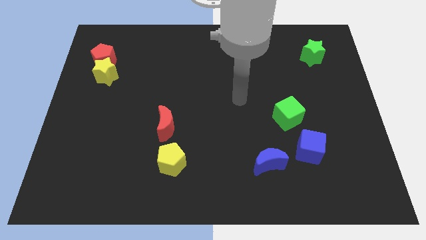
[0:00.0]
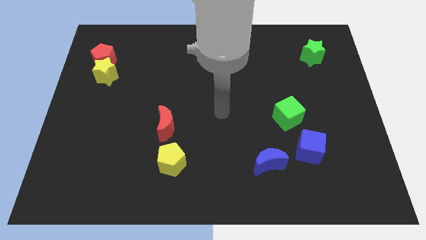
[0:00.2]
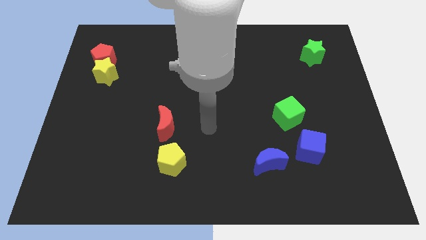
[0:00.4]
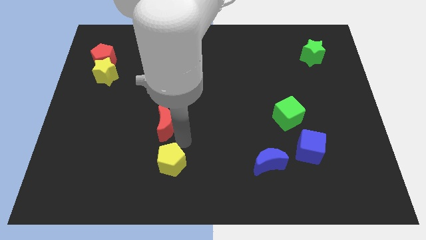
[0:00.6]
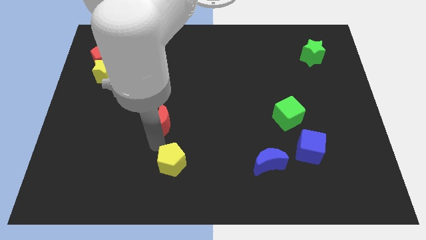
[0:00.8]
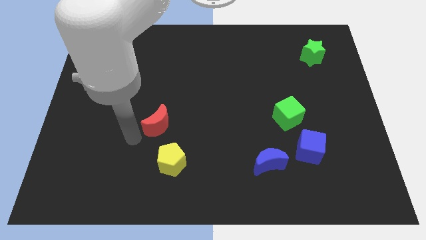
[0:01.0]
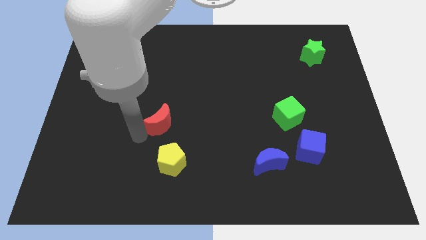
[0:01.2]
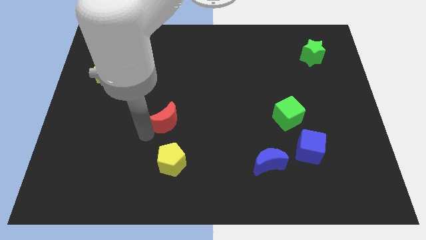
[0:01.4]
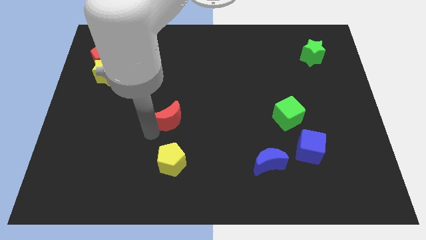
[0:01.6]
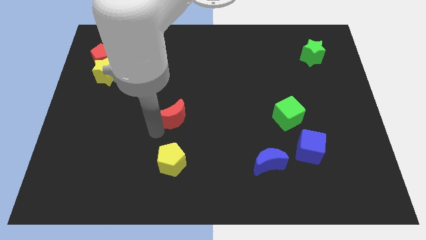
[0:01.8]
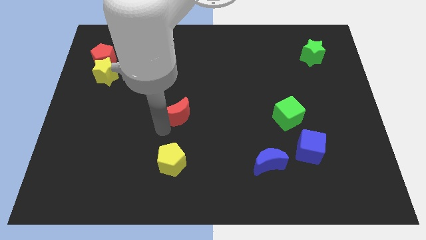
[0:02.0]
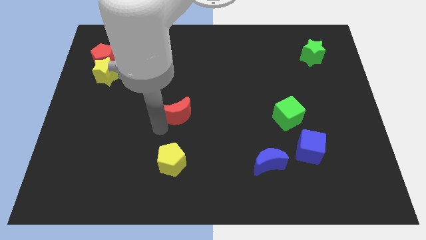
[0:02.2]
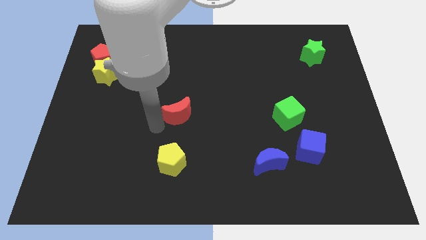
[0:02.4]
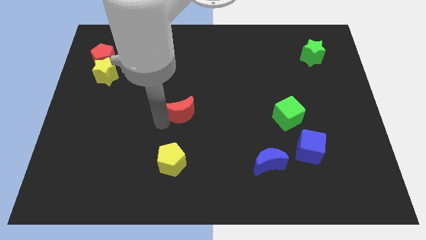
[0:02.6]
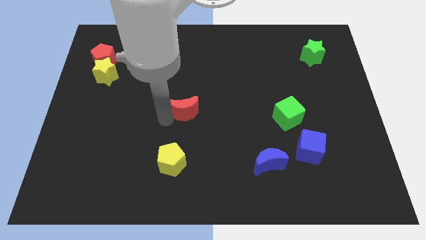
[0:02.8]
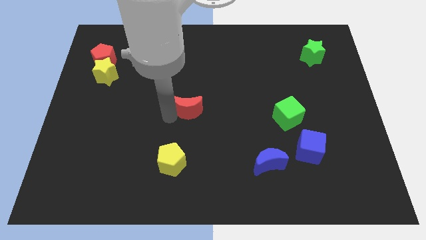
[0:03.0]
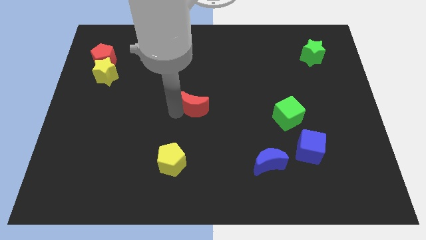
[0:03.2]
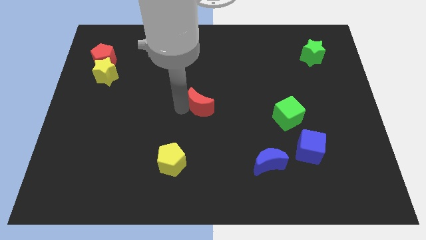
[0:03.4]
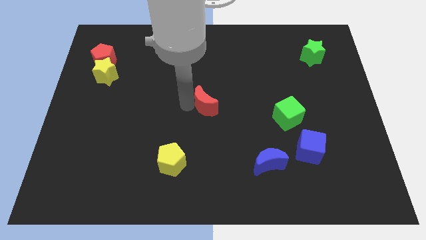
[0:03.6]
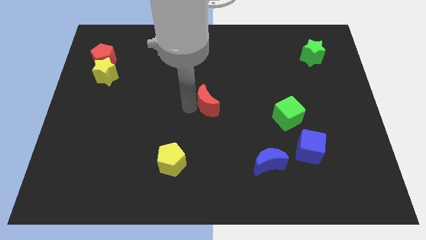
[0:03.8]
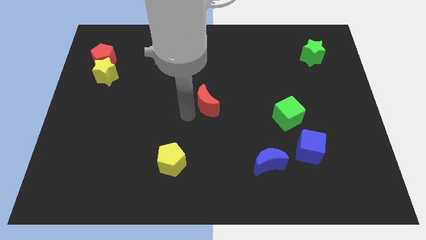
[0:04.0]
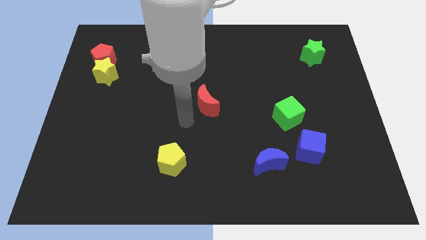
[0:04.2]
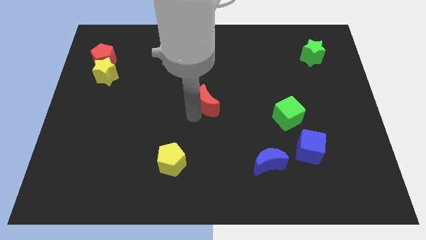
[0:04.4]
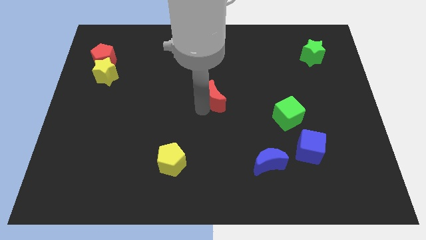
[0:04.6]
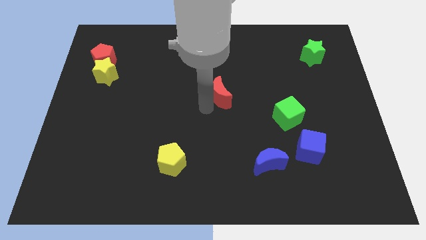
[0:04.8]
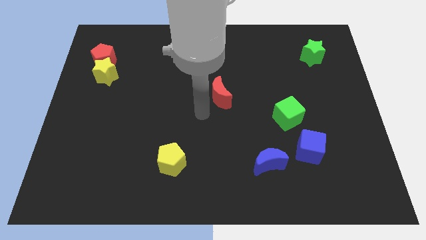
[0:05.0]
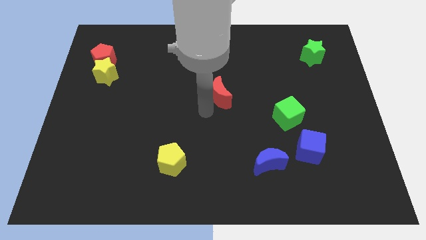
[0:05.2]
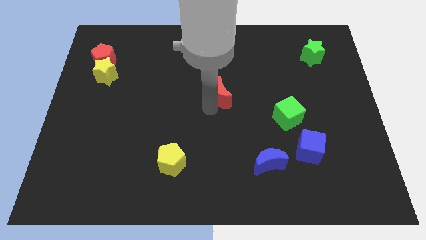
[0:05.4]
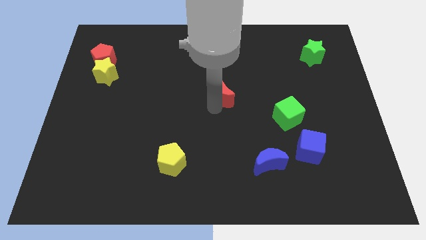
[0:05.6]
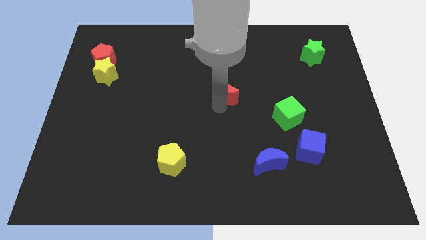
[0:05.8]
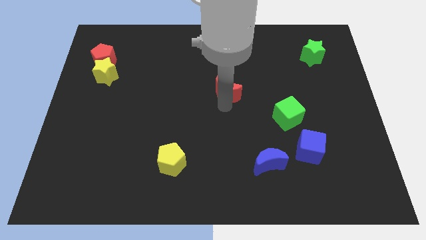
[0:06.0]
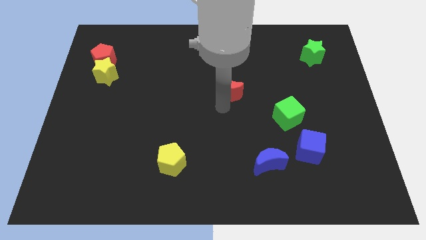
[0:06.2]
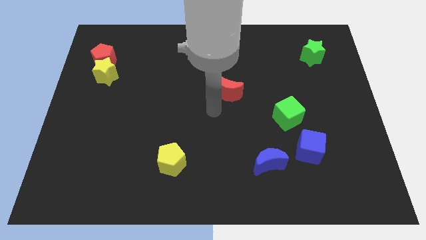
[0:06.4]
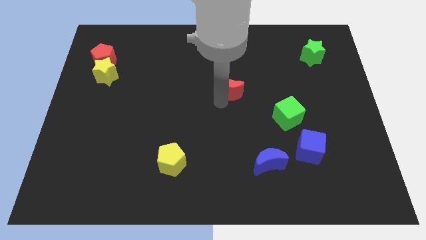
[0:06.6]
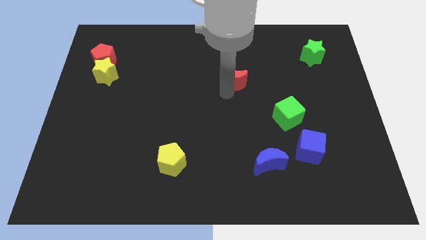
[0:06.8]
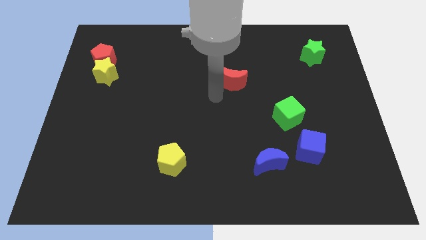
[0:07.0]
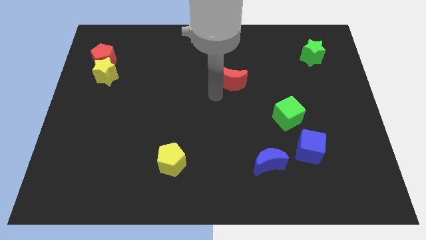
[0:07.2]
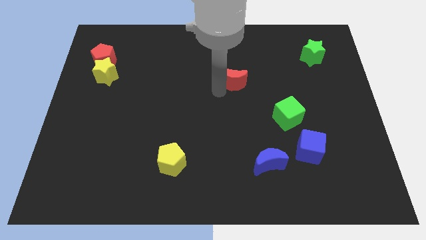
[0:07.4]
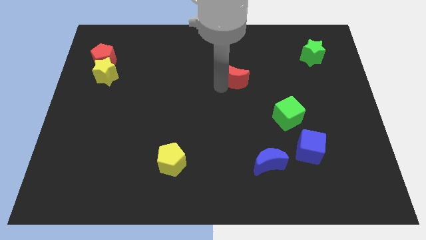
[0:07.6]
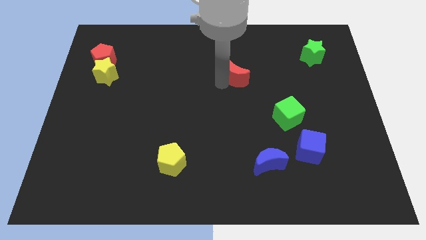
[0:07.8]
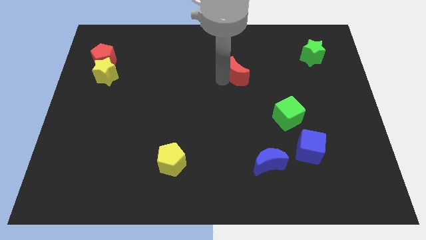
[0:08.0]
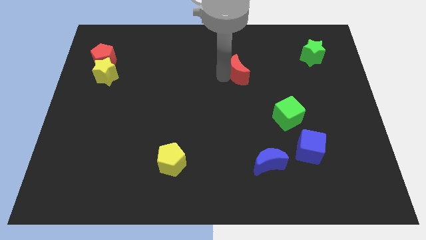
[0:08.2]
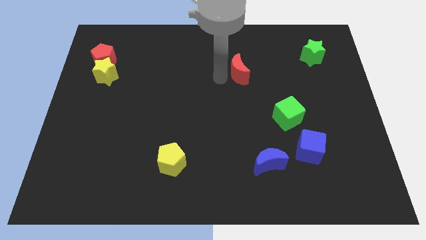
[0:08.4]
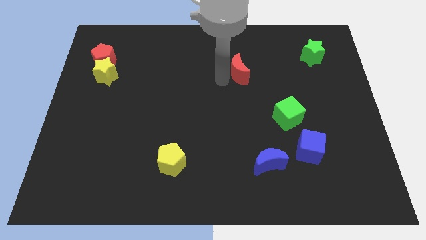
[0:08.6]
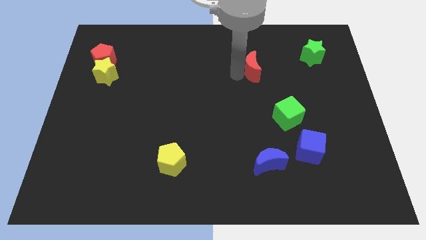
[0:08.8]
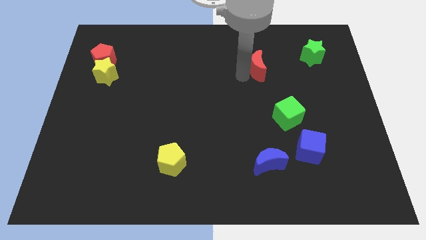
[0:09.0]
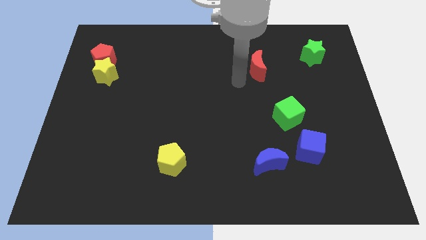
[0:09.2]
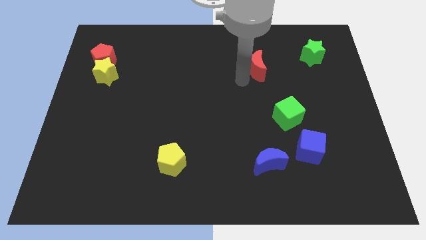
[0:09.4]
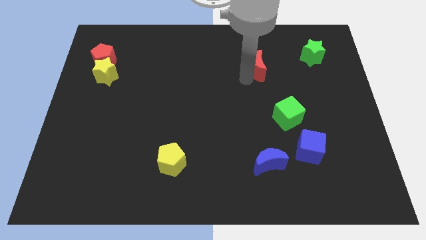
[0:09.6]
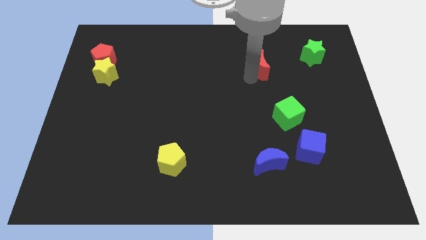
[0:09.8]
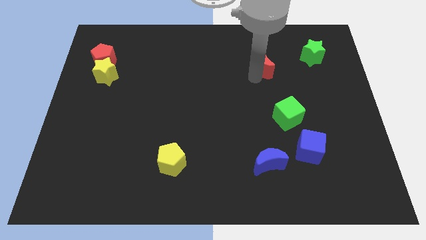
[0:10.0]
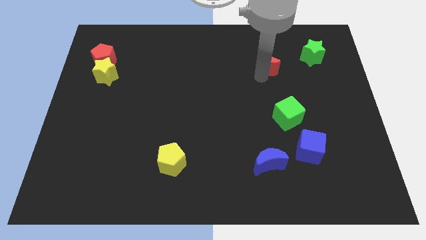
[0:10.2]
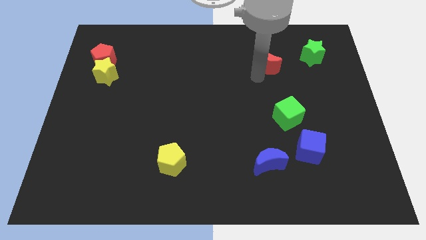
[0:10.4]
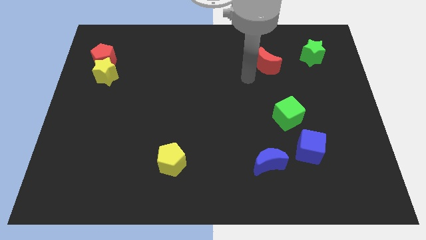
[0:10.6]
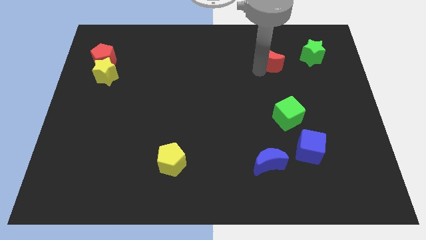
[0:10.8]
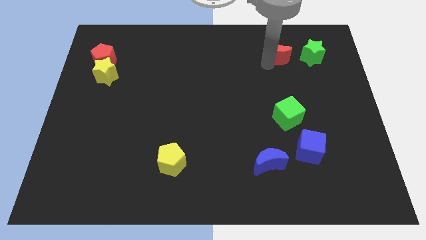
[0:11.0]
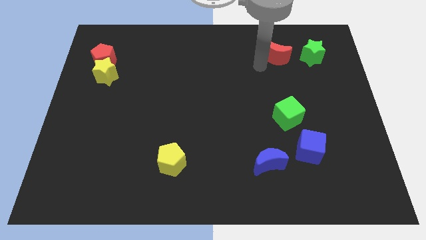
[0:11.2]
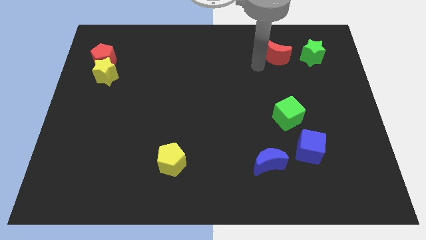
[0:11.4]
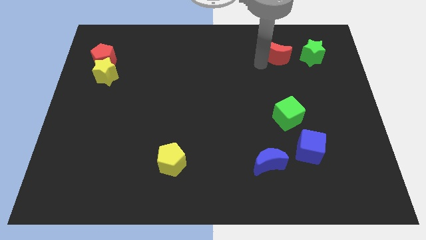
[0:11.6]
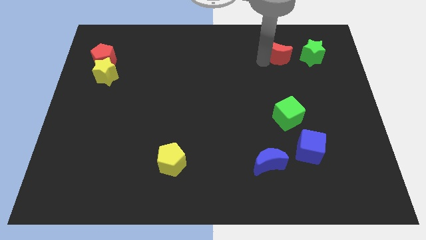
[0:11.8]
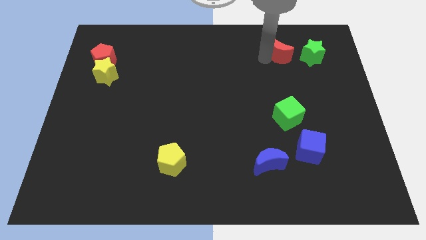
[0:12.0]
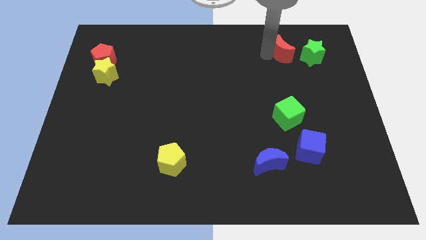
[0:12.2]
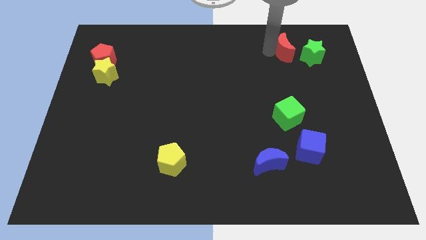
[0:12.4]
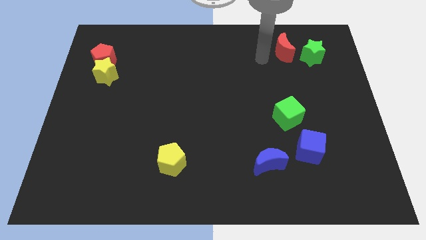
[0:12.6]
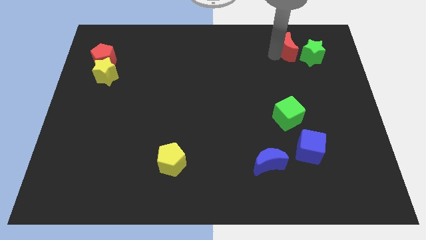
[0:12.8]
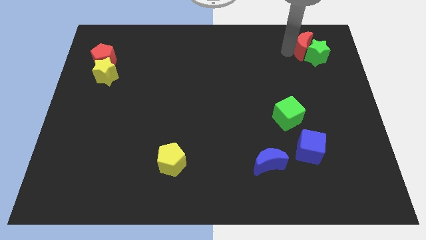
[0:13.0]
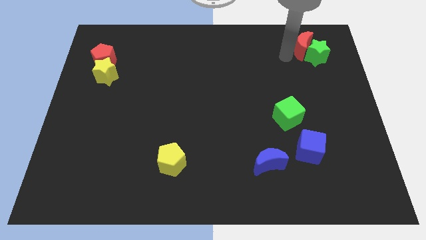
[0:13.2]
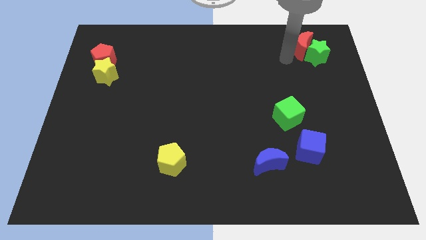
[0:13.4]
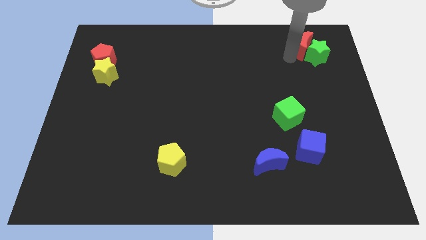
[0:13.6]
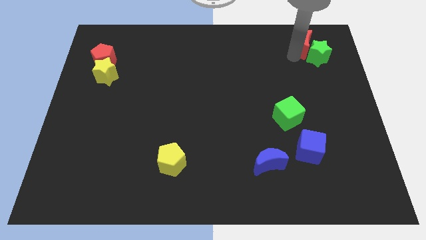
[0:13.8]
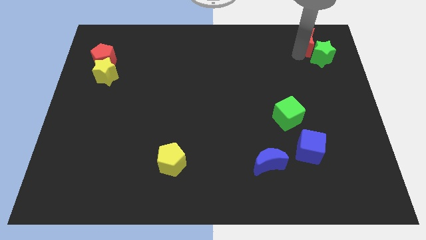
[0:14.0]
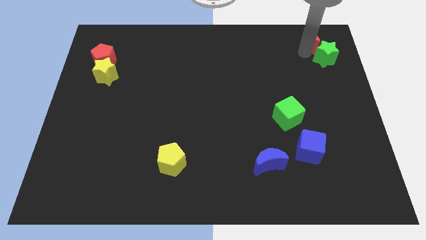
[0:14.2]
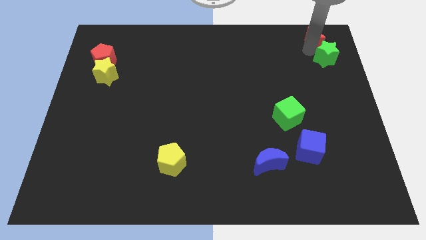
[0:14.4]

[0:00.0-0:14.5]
slide the red moon to the upper right corner

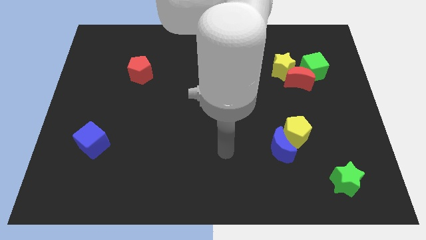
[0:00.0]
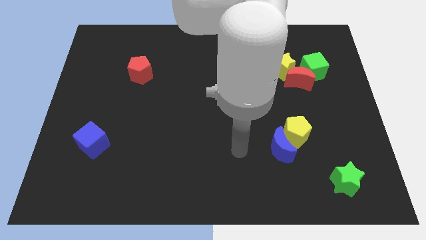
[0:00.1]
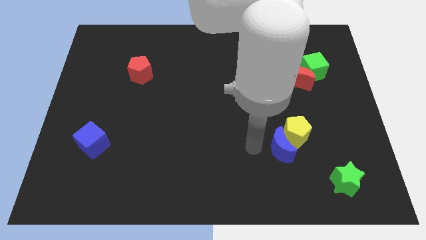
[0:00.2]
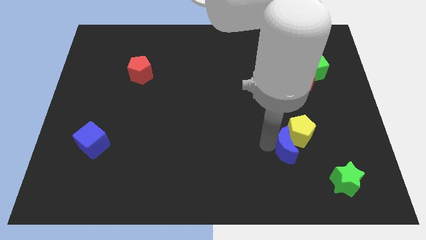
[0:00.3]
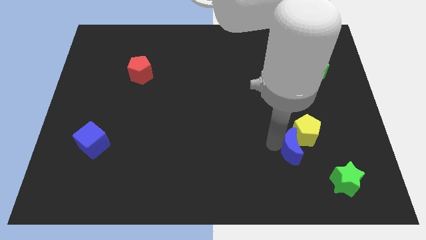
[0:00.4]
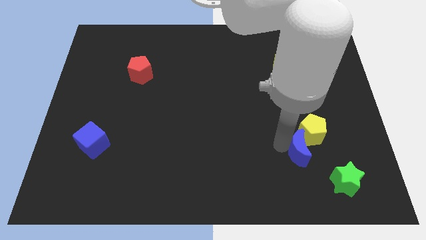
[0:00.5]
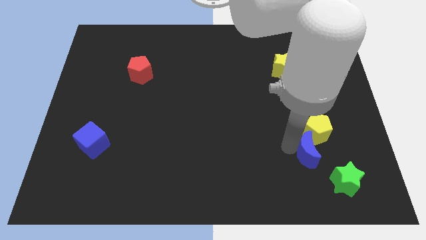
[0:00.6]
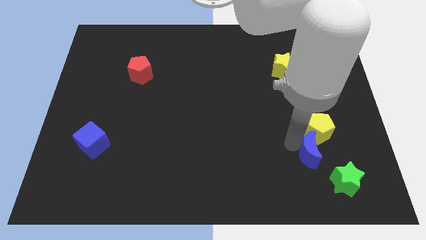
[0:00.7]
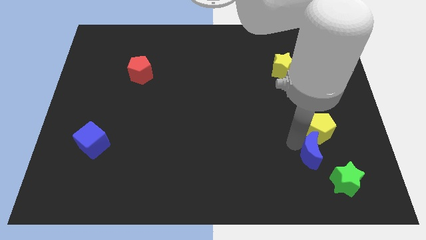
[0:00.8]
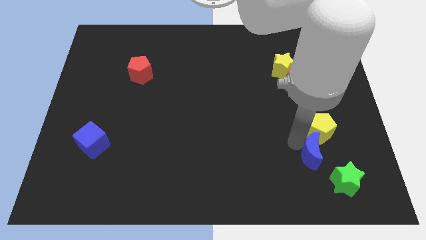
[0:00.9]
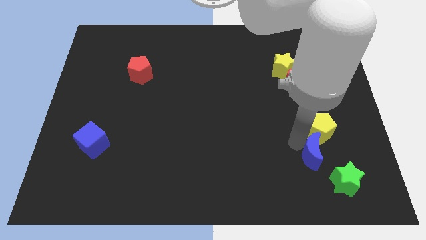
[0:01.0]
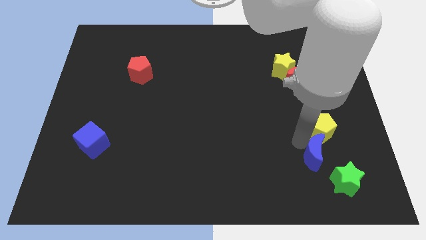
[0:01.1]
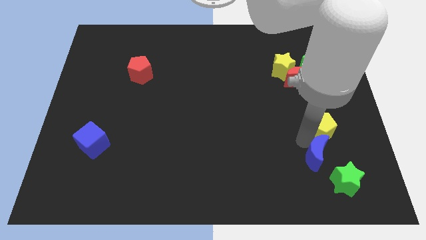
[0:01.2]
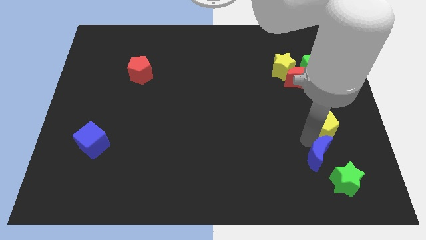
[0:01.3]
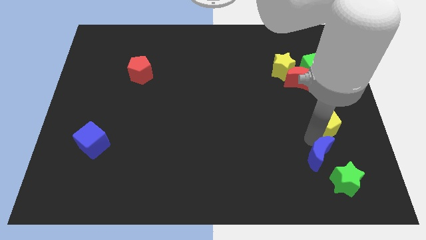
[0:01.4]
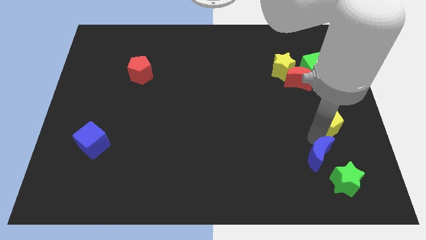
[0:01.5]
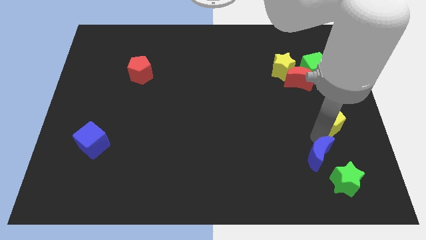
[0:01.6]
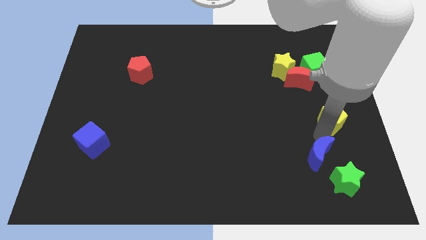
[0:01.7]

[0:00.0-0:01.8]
slide the yellow pentagon to the right side
